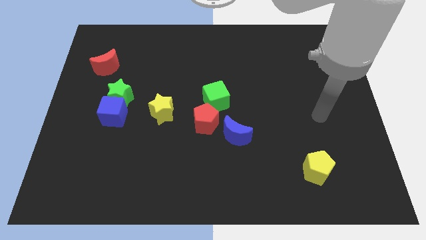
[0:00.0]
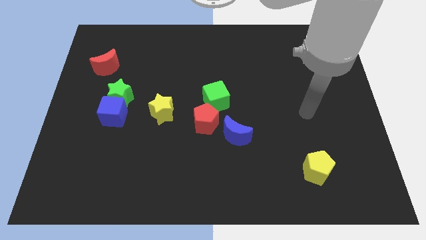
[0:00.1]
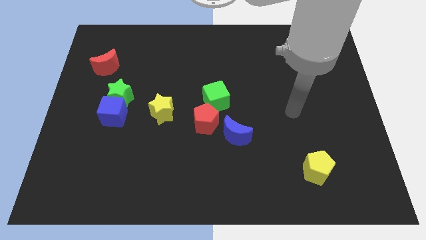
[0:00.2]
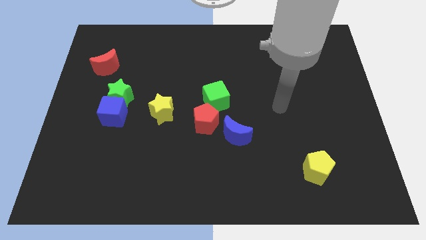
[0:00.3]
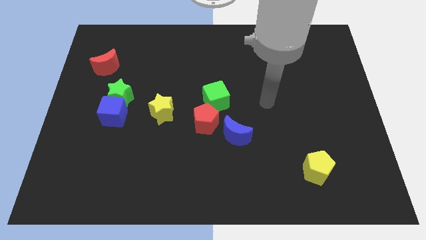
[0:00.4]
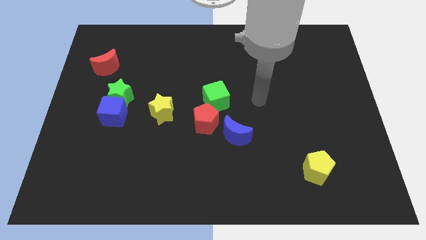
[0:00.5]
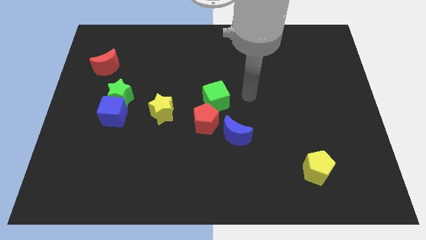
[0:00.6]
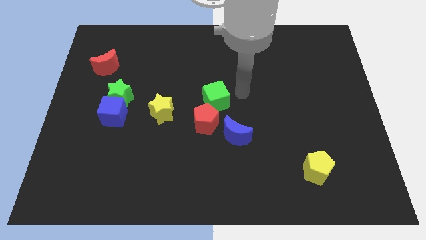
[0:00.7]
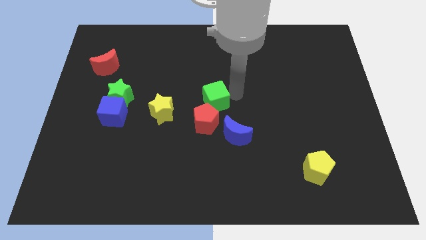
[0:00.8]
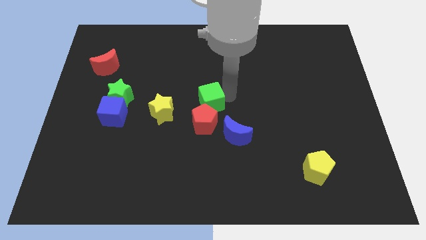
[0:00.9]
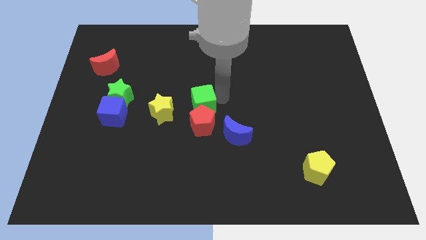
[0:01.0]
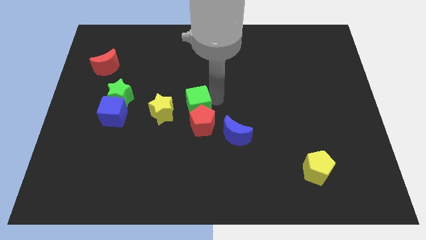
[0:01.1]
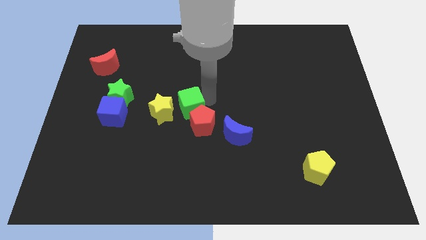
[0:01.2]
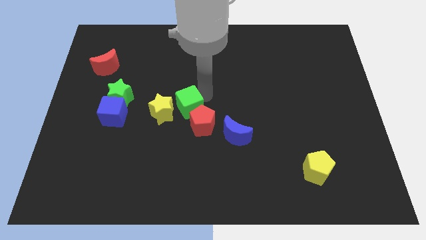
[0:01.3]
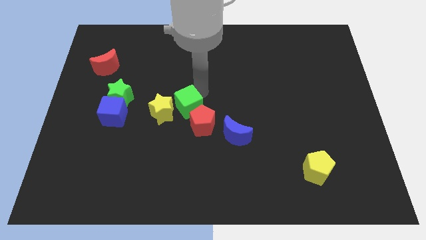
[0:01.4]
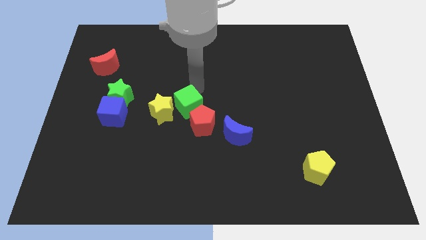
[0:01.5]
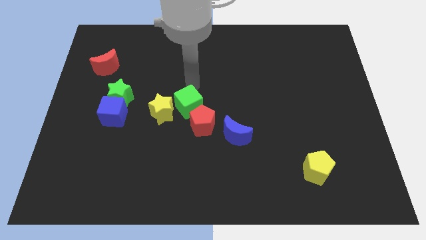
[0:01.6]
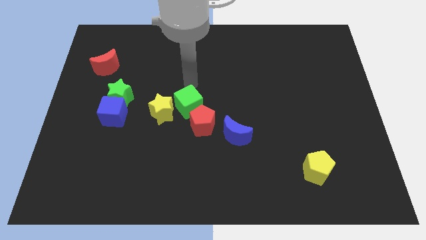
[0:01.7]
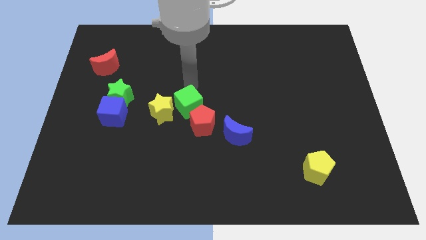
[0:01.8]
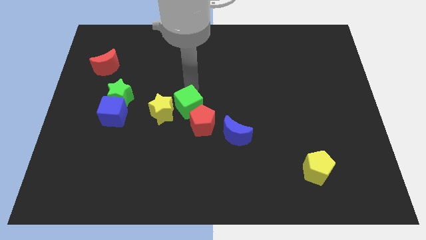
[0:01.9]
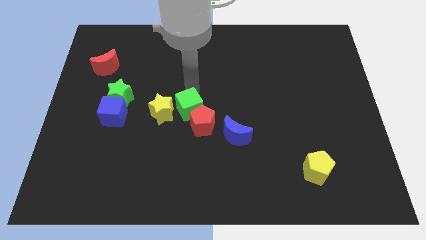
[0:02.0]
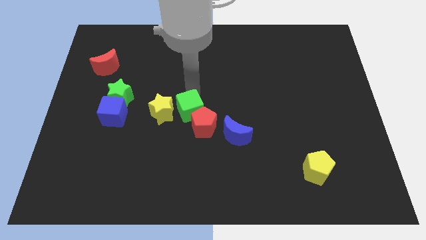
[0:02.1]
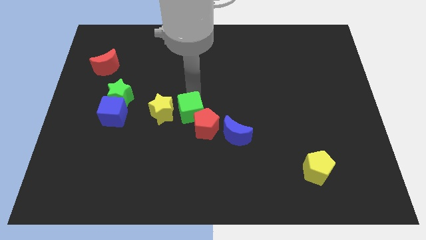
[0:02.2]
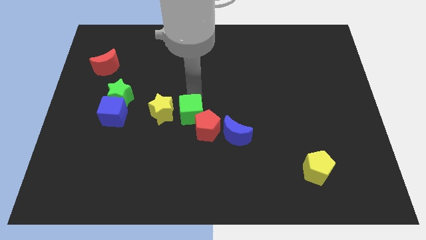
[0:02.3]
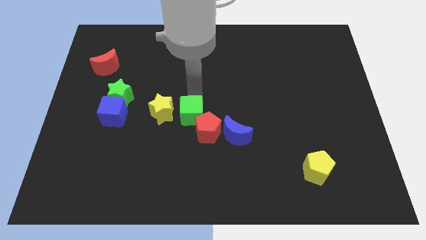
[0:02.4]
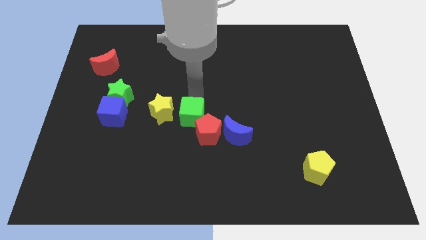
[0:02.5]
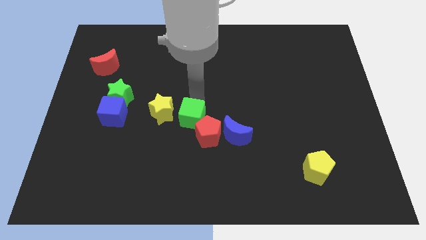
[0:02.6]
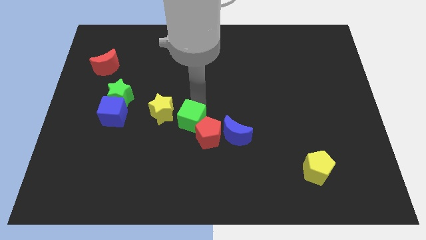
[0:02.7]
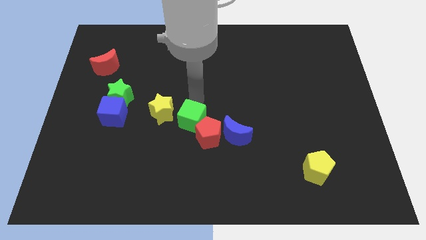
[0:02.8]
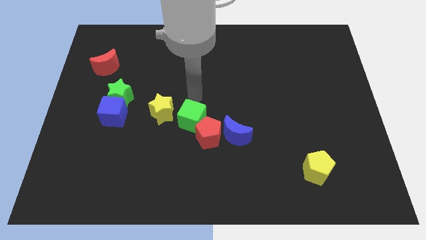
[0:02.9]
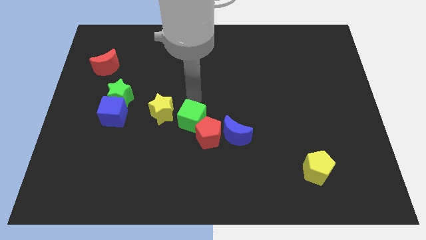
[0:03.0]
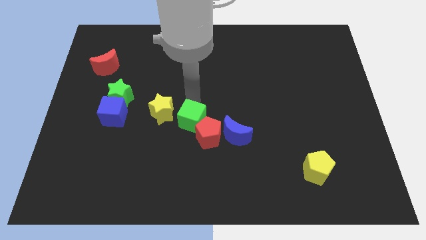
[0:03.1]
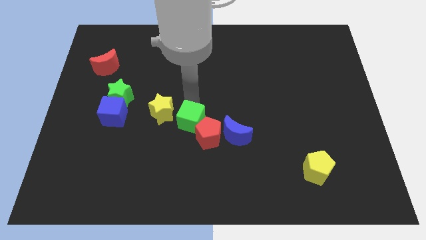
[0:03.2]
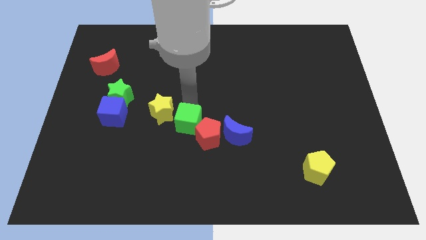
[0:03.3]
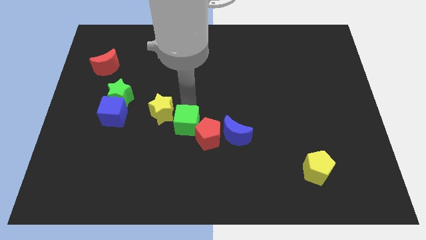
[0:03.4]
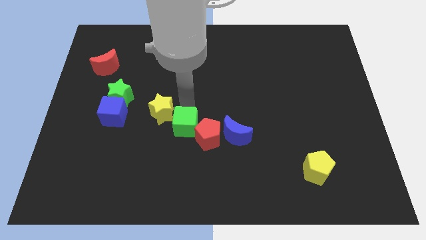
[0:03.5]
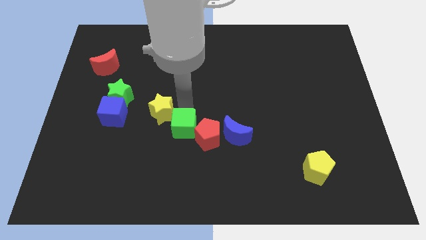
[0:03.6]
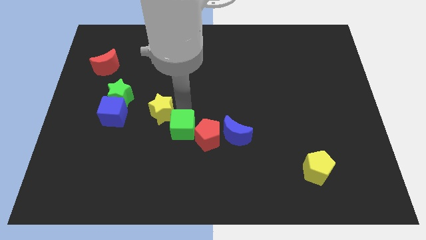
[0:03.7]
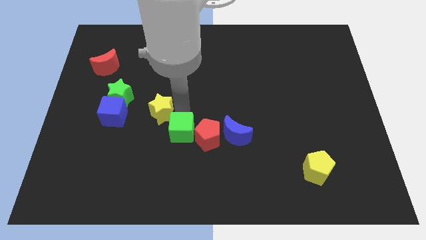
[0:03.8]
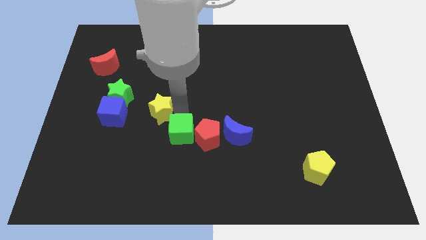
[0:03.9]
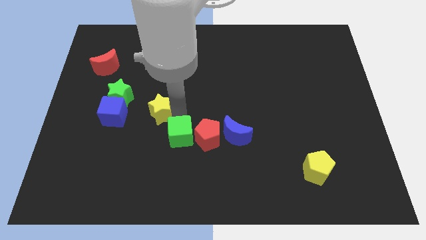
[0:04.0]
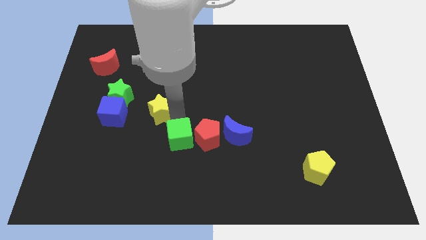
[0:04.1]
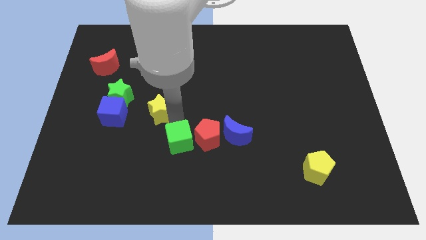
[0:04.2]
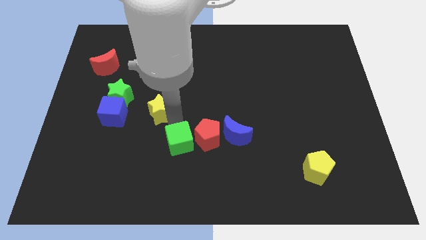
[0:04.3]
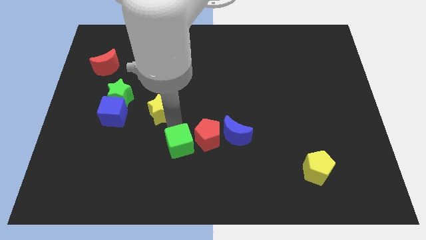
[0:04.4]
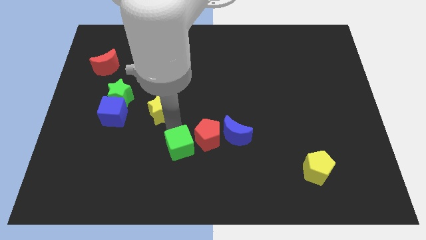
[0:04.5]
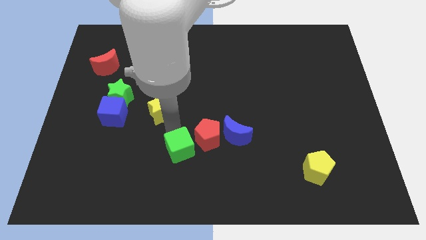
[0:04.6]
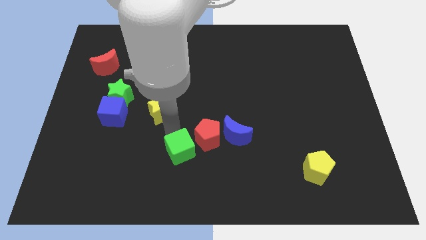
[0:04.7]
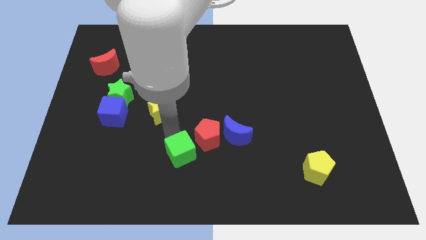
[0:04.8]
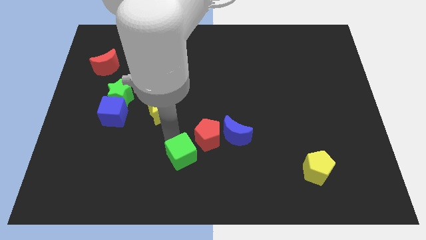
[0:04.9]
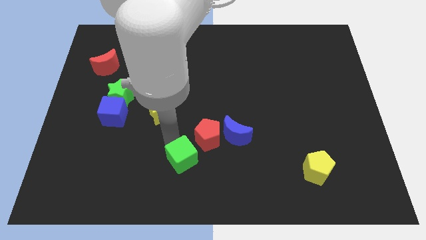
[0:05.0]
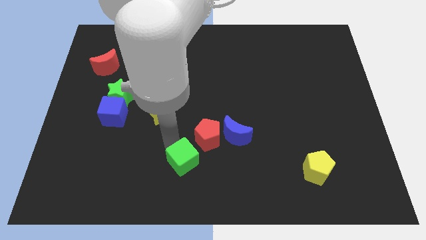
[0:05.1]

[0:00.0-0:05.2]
slide the green cube to the bottom side

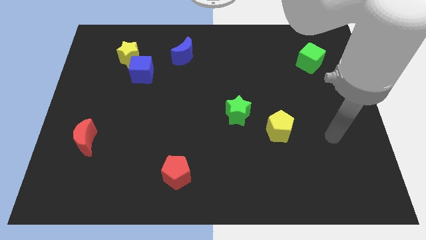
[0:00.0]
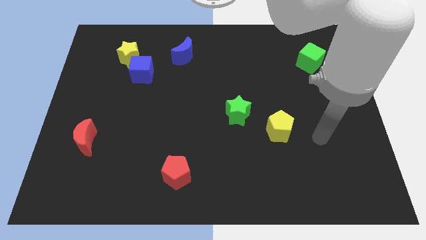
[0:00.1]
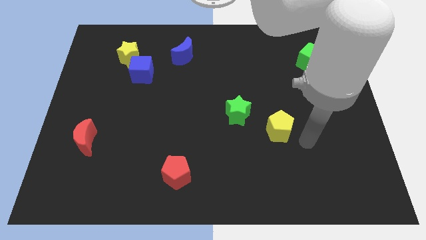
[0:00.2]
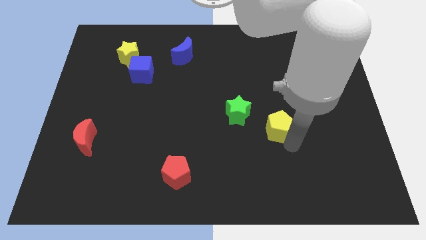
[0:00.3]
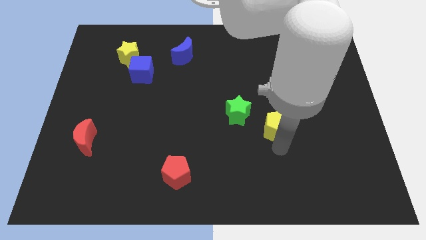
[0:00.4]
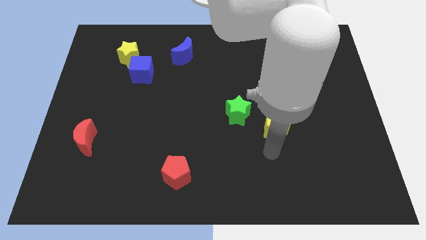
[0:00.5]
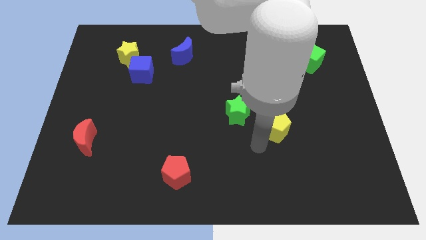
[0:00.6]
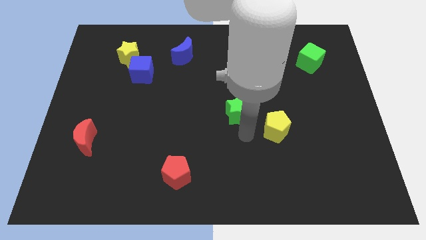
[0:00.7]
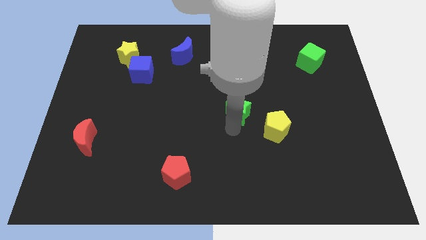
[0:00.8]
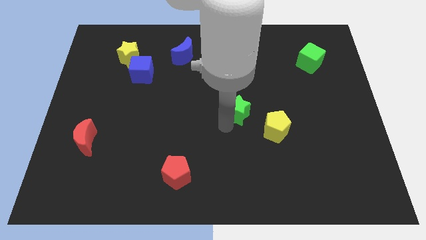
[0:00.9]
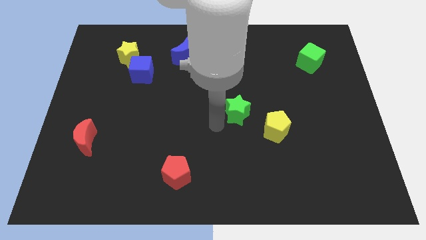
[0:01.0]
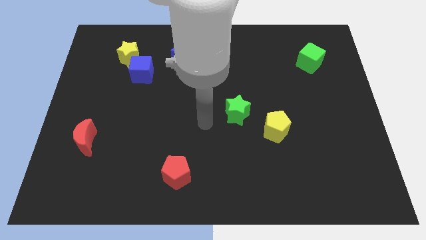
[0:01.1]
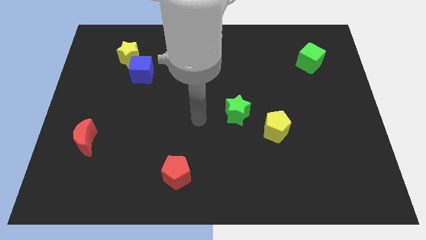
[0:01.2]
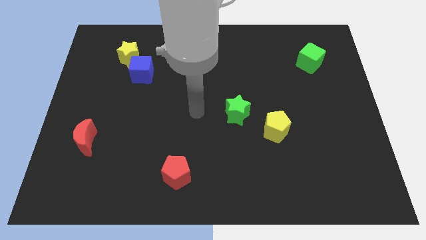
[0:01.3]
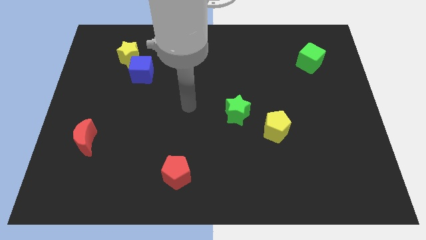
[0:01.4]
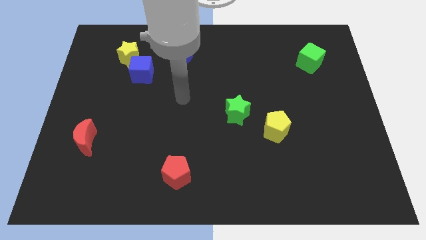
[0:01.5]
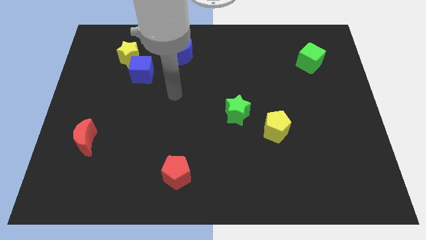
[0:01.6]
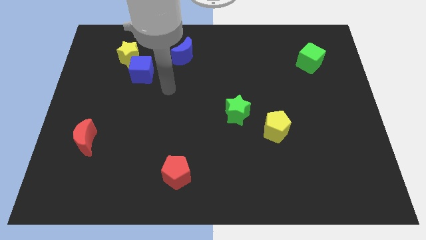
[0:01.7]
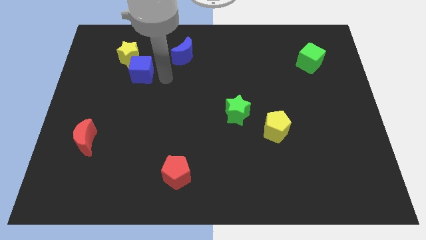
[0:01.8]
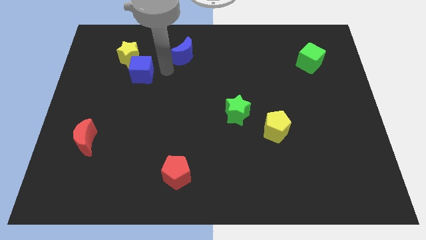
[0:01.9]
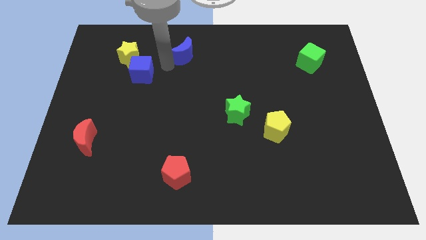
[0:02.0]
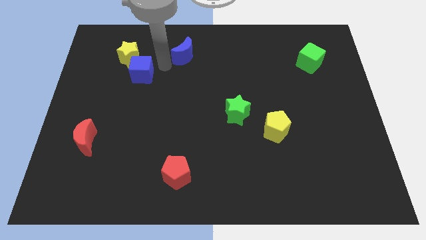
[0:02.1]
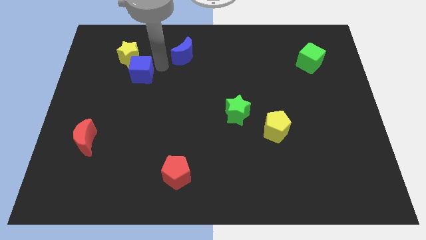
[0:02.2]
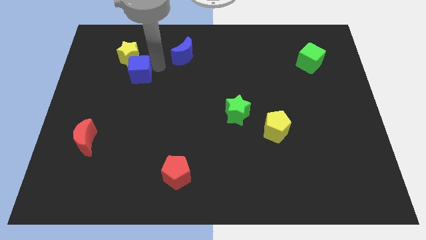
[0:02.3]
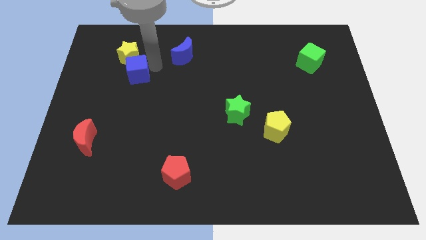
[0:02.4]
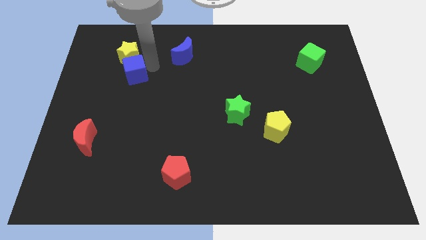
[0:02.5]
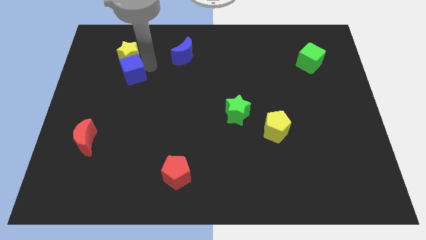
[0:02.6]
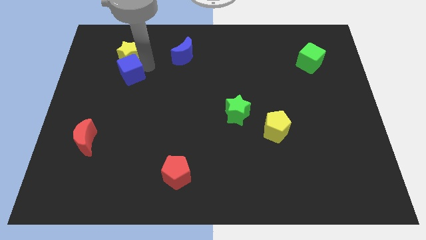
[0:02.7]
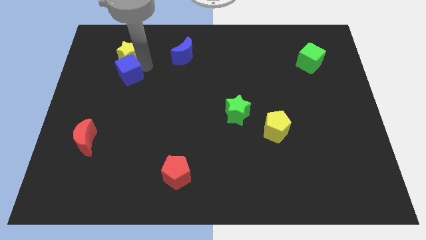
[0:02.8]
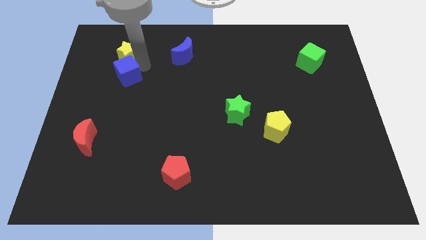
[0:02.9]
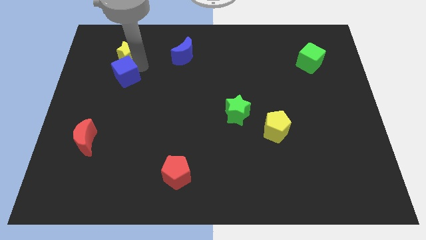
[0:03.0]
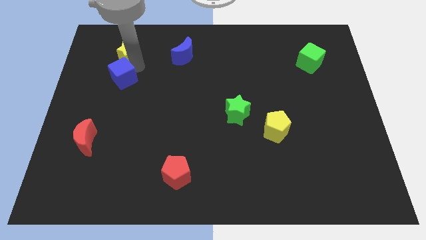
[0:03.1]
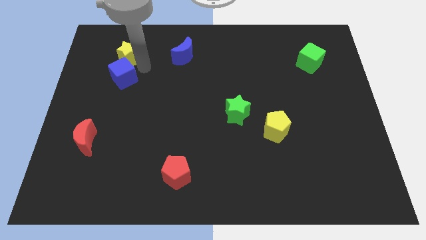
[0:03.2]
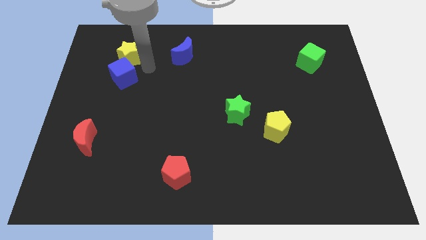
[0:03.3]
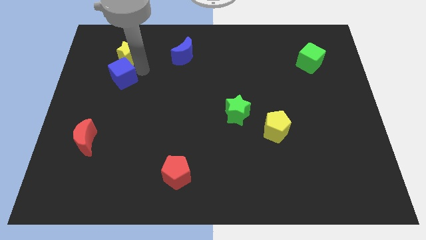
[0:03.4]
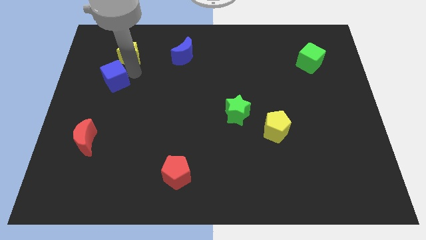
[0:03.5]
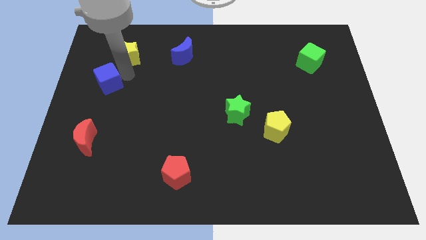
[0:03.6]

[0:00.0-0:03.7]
slide the blue cube to the left side
